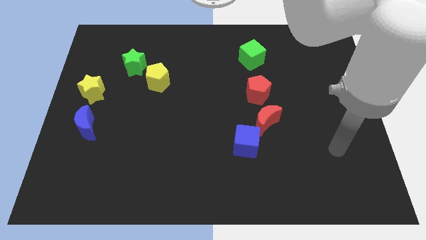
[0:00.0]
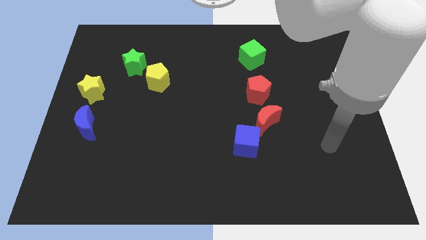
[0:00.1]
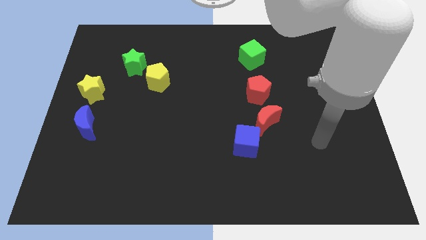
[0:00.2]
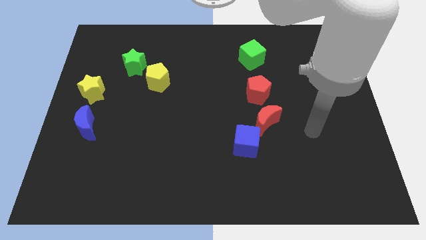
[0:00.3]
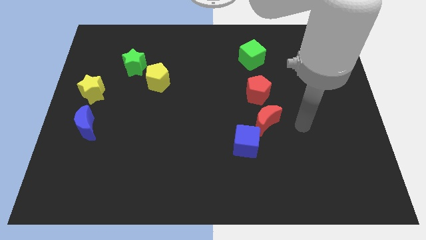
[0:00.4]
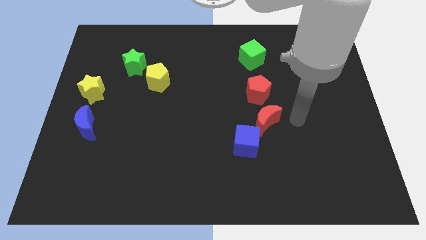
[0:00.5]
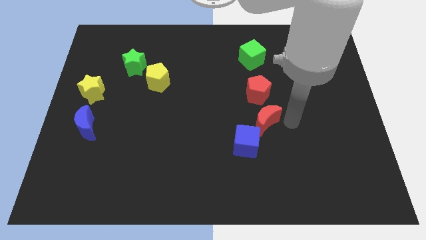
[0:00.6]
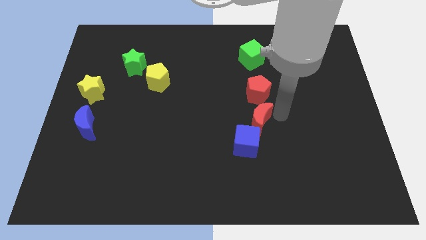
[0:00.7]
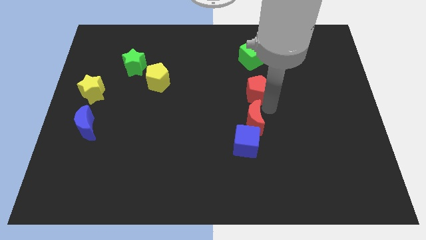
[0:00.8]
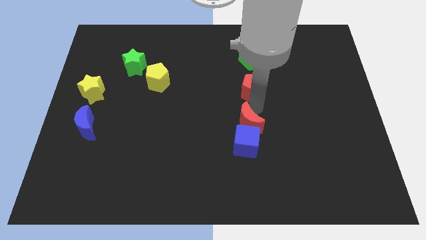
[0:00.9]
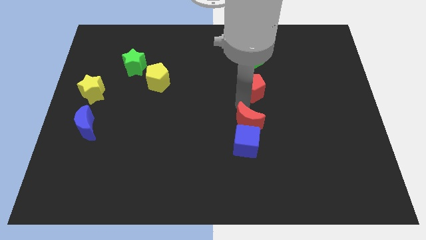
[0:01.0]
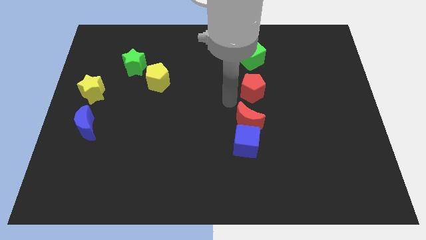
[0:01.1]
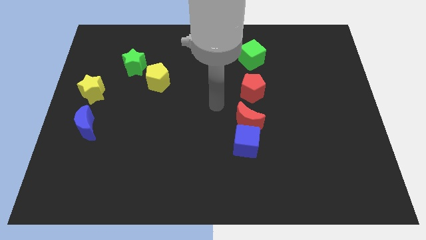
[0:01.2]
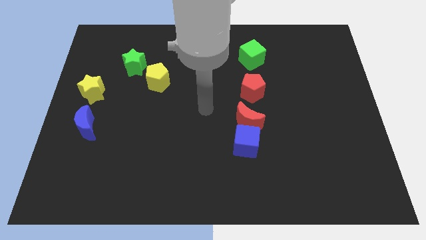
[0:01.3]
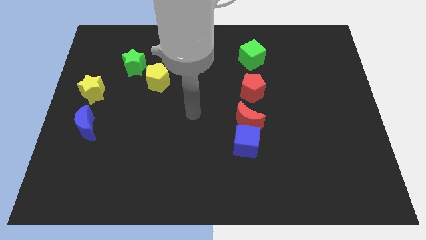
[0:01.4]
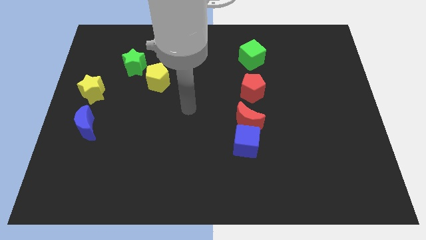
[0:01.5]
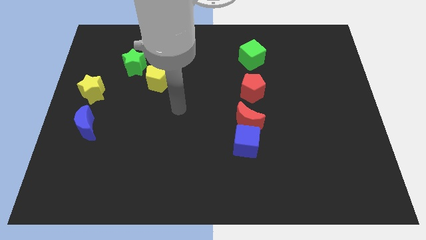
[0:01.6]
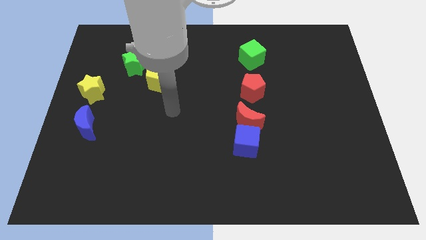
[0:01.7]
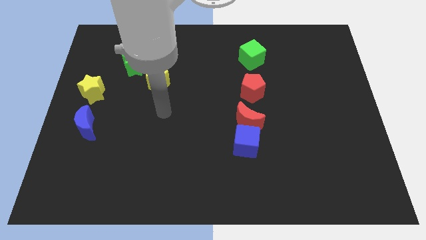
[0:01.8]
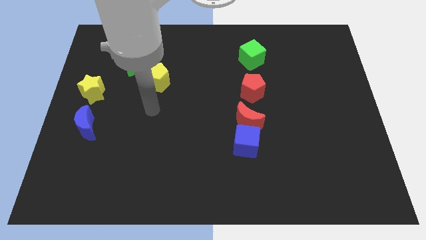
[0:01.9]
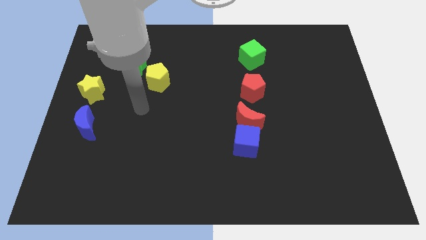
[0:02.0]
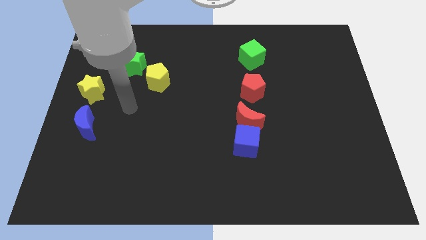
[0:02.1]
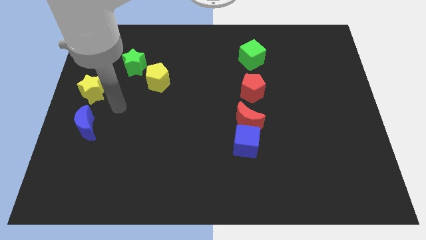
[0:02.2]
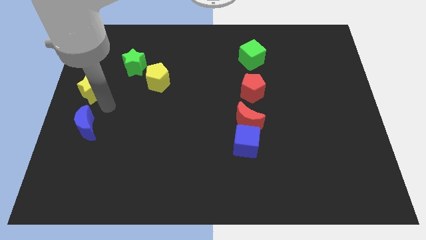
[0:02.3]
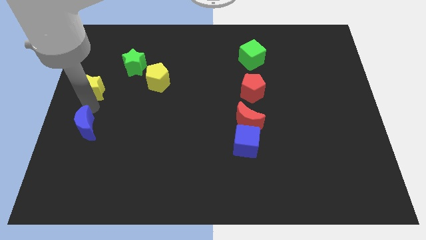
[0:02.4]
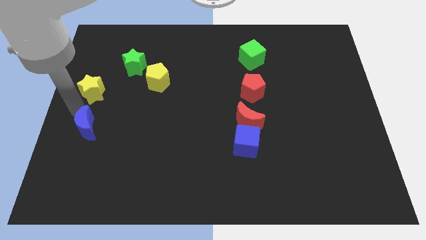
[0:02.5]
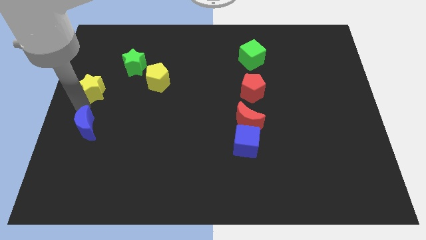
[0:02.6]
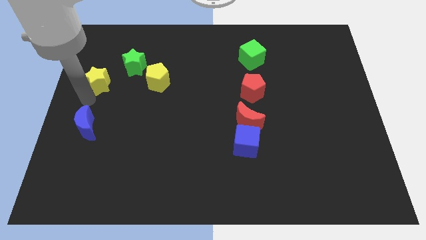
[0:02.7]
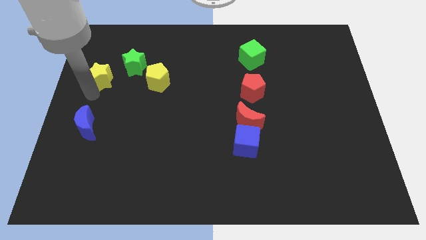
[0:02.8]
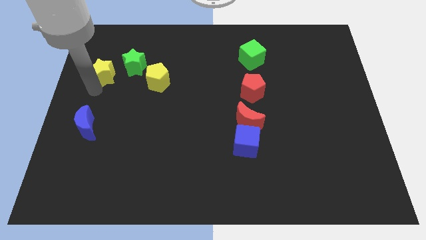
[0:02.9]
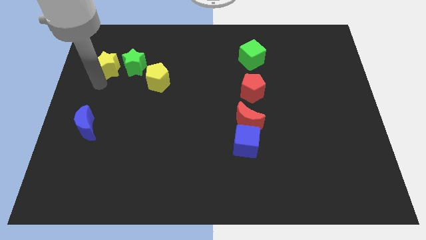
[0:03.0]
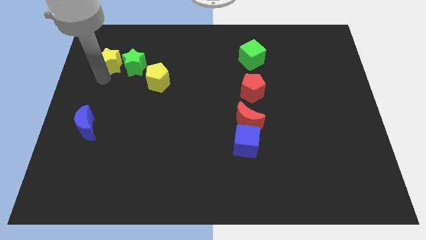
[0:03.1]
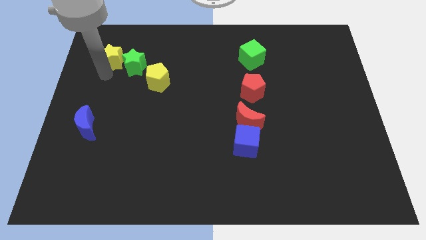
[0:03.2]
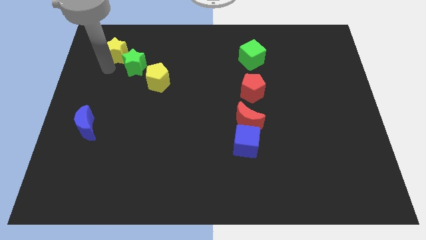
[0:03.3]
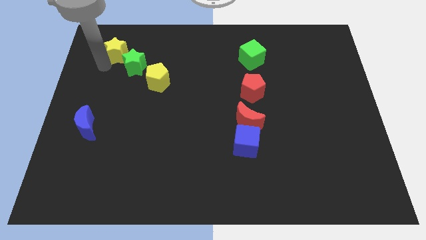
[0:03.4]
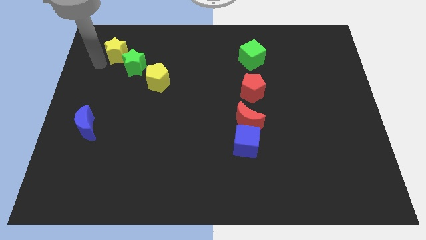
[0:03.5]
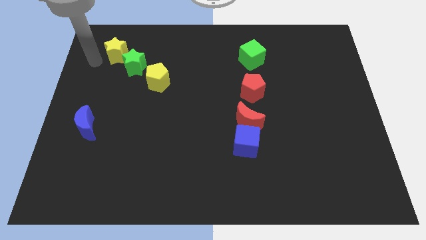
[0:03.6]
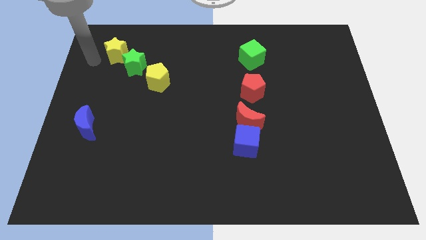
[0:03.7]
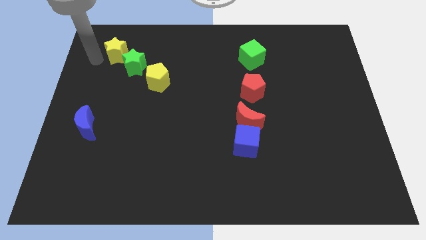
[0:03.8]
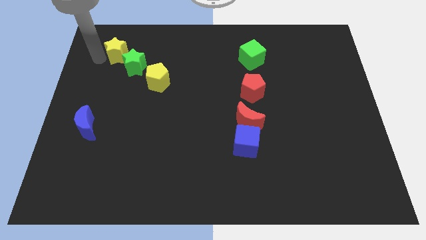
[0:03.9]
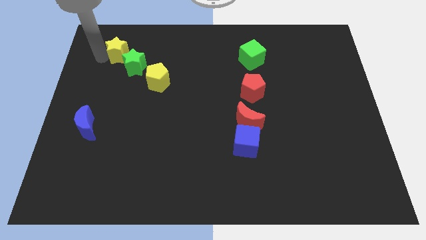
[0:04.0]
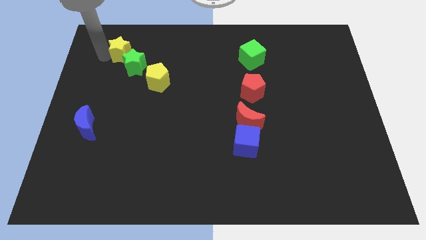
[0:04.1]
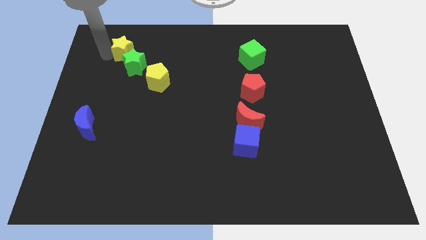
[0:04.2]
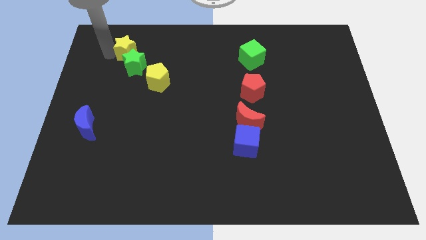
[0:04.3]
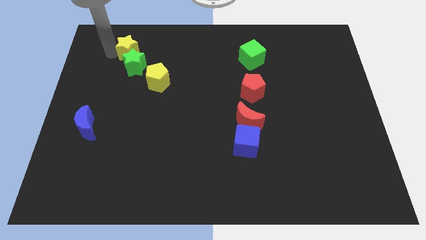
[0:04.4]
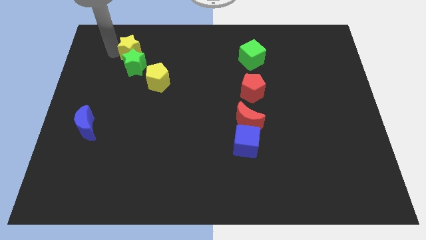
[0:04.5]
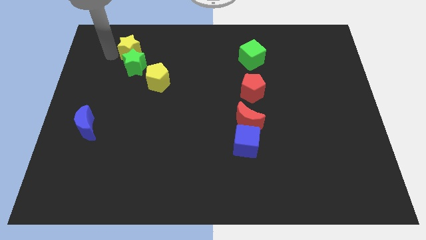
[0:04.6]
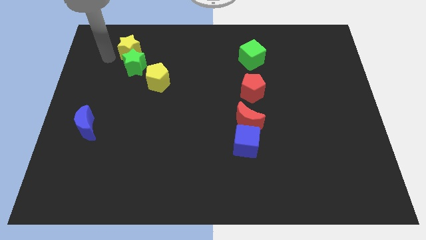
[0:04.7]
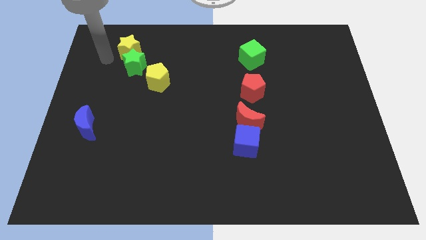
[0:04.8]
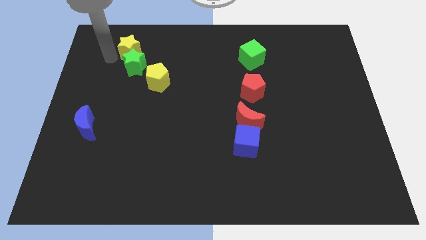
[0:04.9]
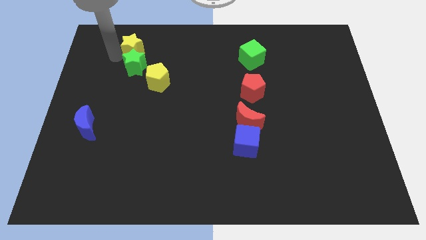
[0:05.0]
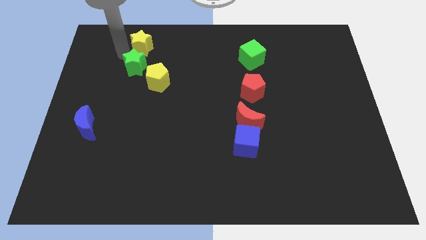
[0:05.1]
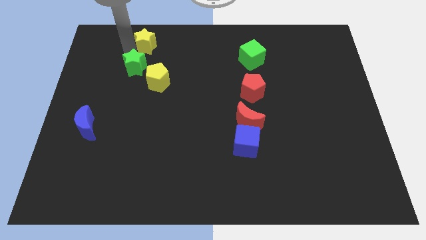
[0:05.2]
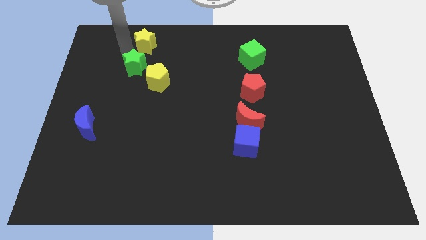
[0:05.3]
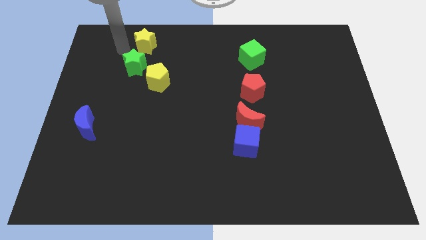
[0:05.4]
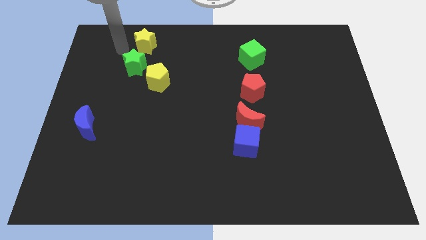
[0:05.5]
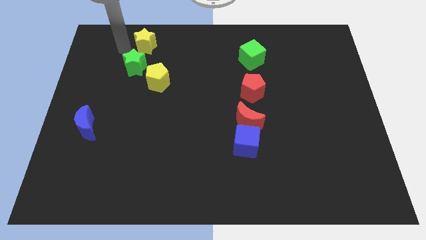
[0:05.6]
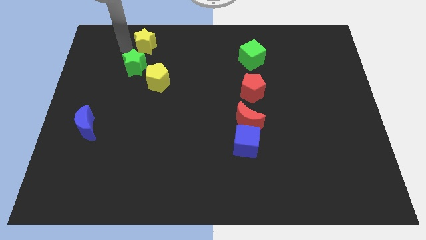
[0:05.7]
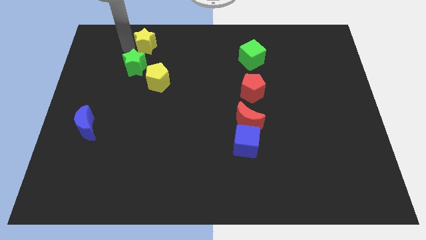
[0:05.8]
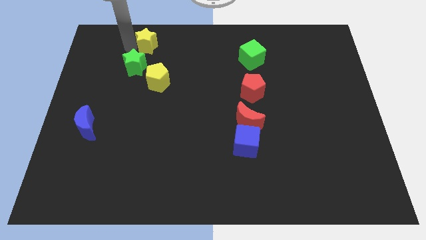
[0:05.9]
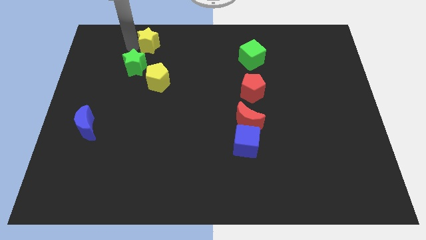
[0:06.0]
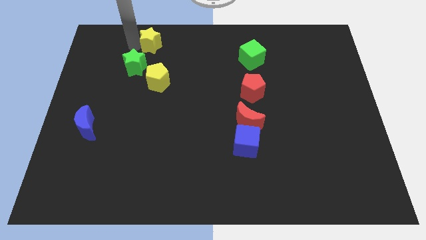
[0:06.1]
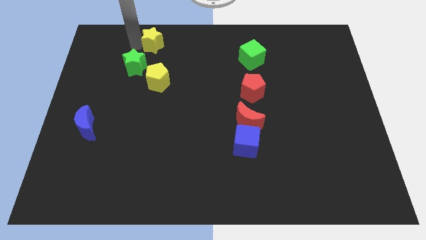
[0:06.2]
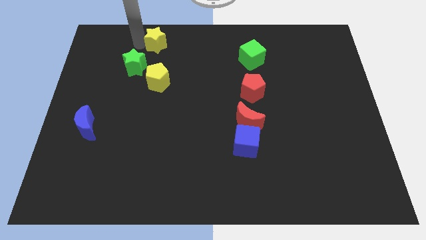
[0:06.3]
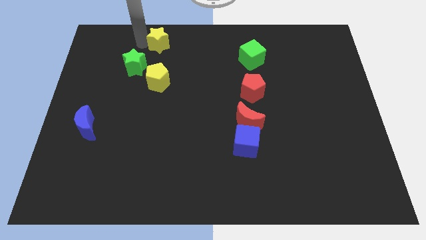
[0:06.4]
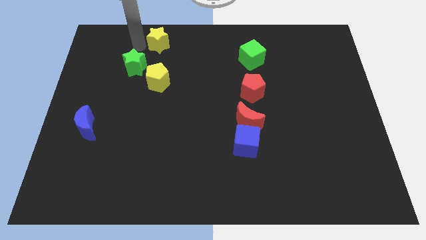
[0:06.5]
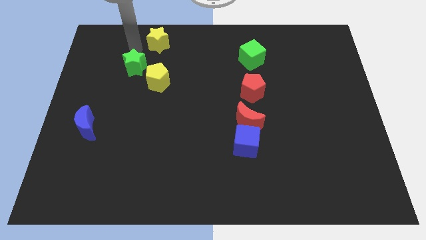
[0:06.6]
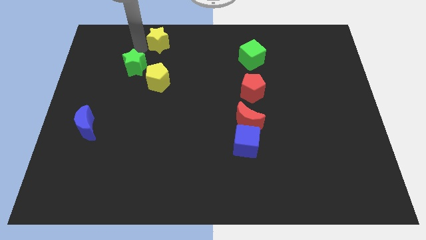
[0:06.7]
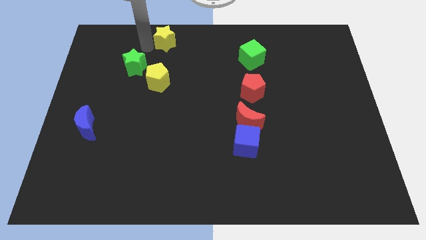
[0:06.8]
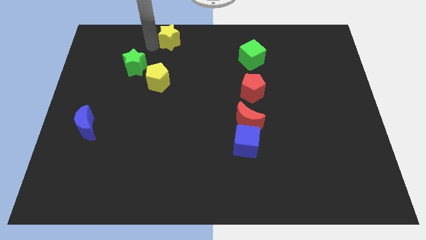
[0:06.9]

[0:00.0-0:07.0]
slide the yellow star to the top

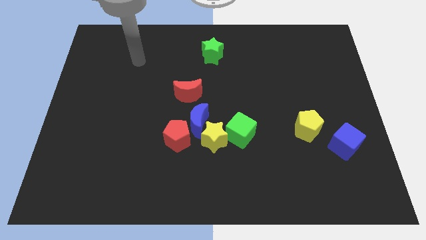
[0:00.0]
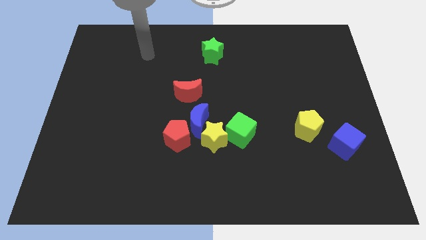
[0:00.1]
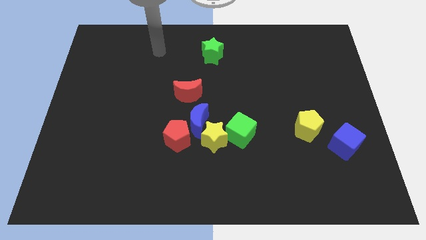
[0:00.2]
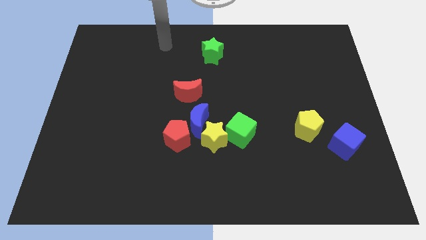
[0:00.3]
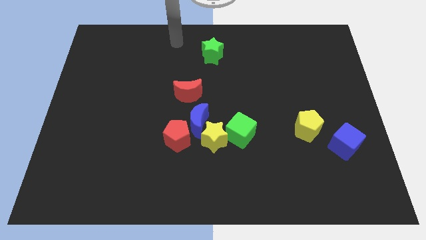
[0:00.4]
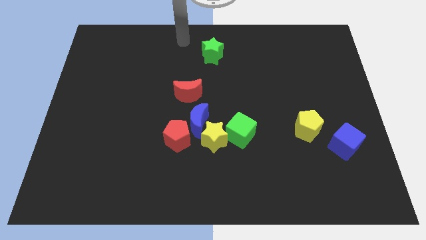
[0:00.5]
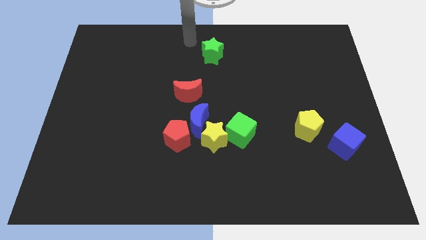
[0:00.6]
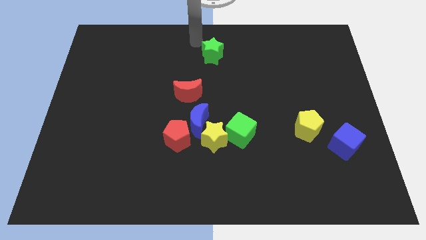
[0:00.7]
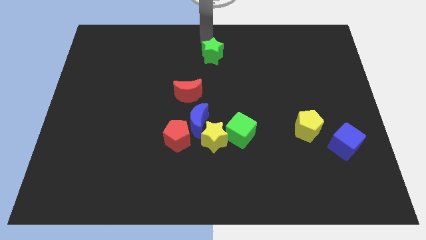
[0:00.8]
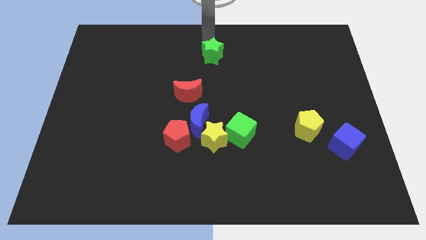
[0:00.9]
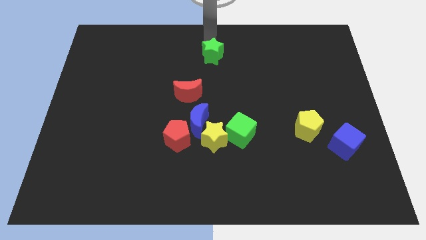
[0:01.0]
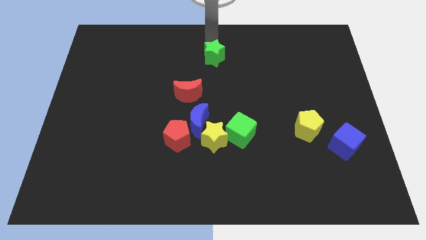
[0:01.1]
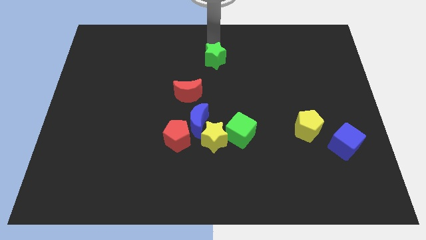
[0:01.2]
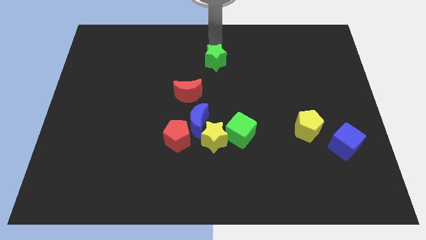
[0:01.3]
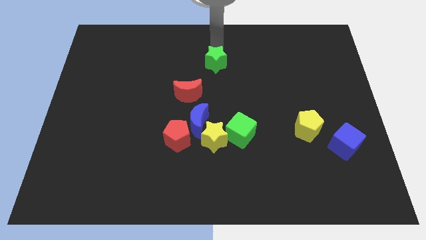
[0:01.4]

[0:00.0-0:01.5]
put the green star to the center of the board
